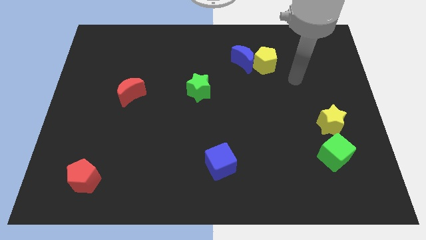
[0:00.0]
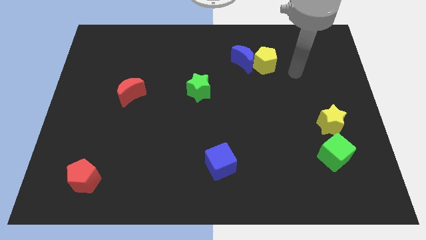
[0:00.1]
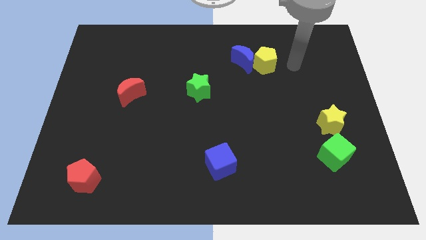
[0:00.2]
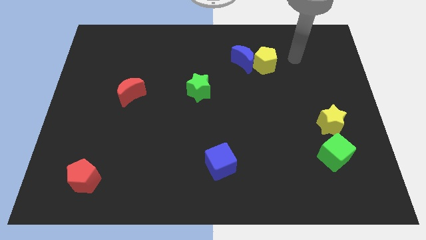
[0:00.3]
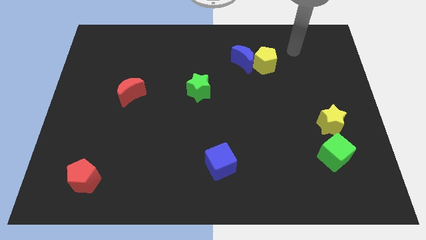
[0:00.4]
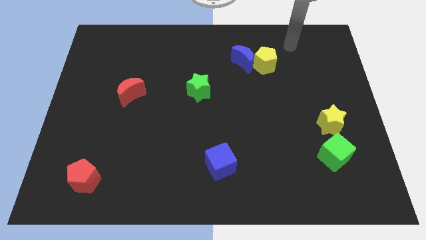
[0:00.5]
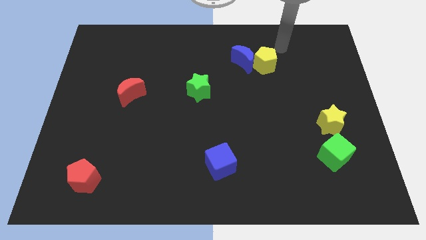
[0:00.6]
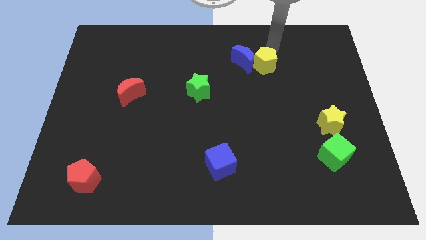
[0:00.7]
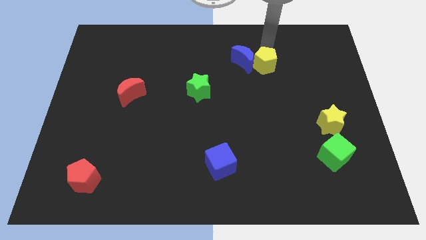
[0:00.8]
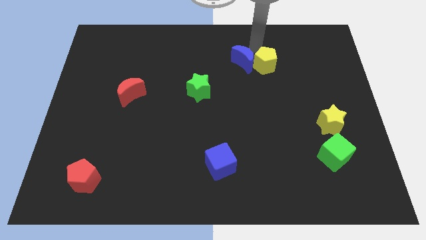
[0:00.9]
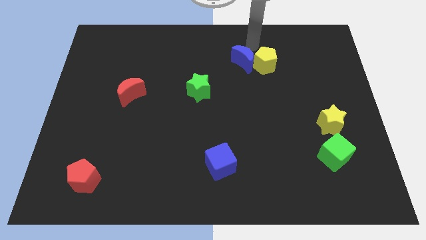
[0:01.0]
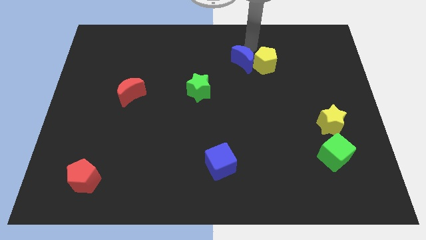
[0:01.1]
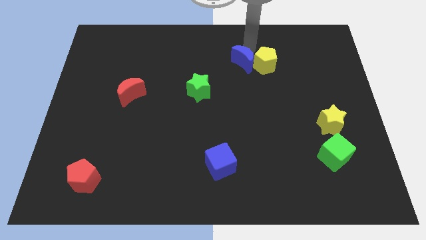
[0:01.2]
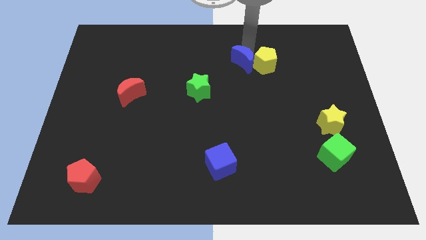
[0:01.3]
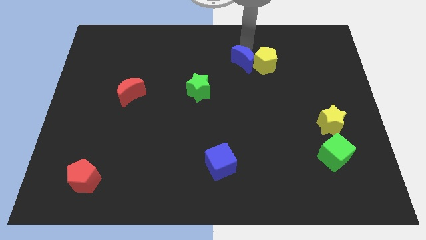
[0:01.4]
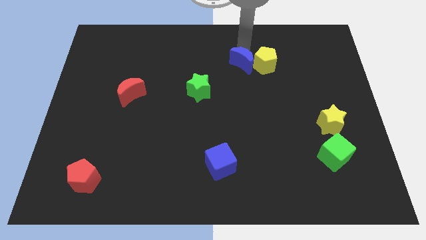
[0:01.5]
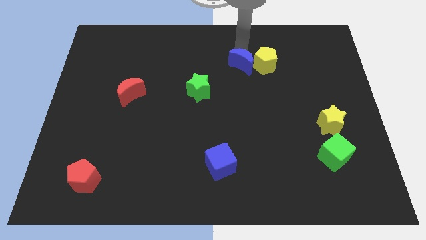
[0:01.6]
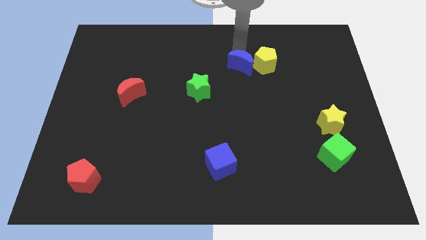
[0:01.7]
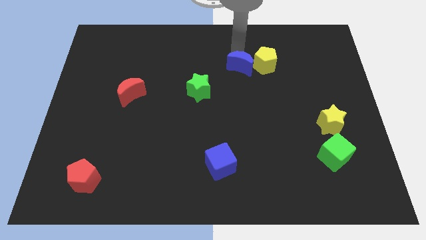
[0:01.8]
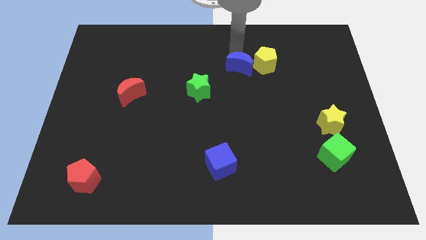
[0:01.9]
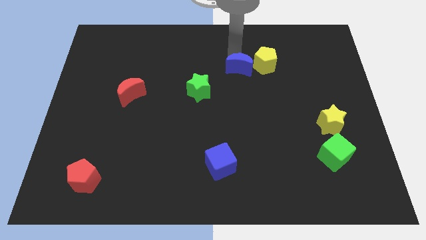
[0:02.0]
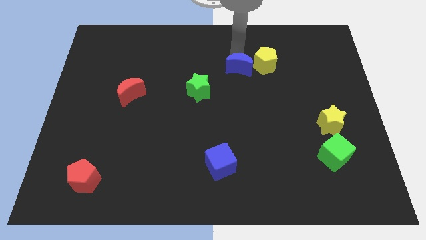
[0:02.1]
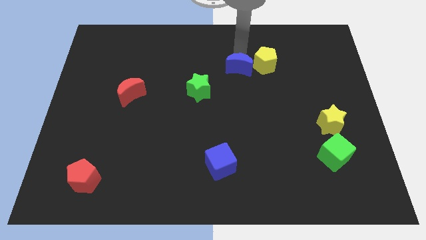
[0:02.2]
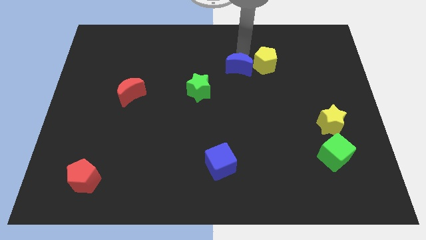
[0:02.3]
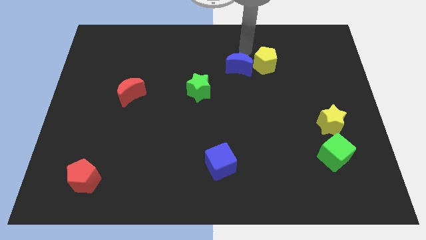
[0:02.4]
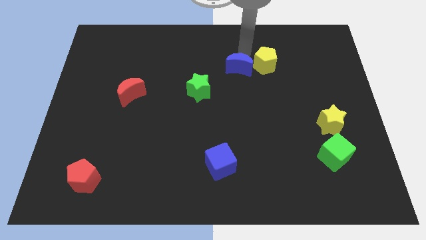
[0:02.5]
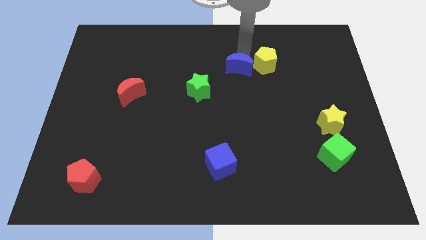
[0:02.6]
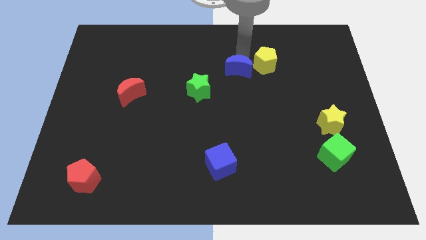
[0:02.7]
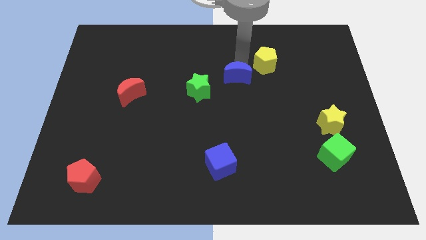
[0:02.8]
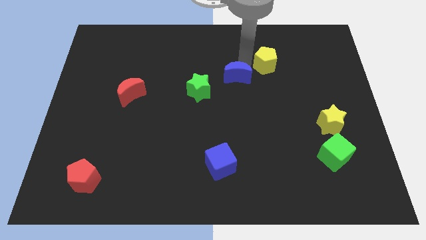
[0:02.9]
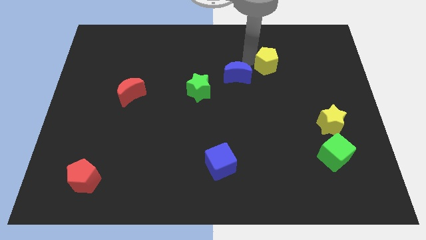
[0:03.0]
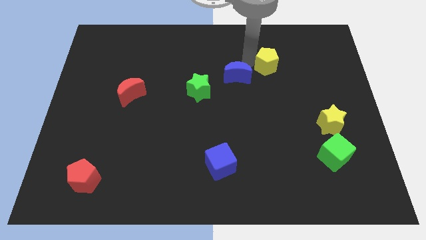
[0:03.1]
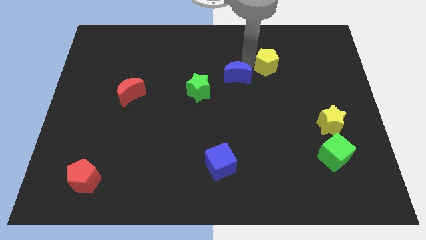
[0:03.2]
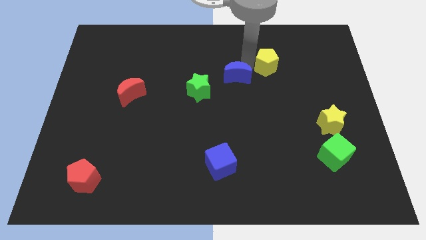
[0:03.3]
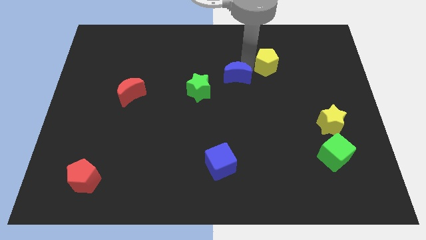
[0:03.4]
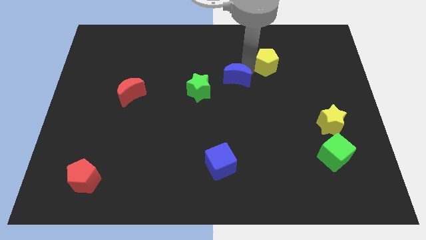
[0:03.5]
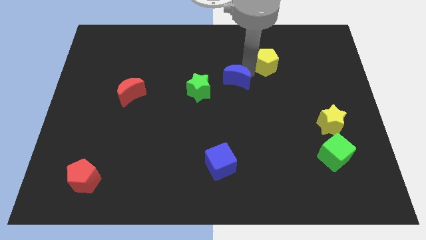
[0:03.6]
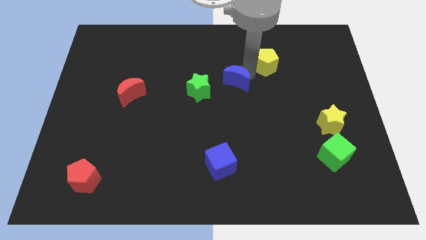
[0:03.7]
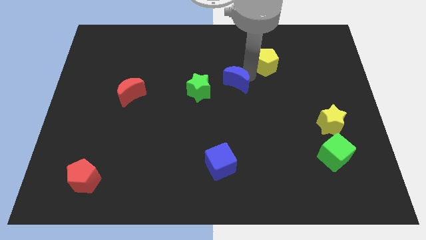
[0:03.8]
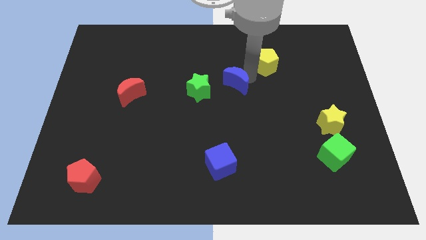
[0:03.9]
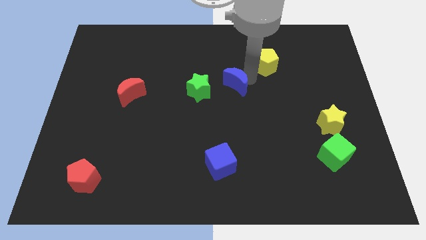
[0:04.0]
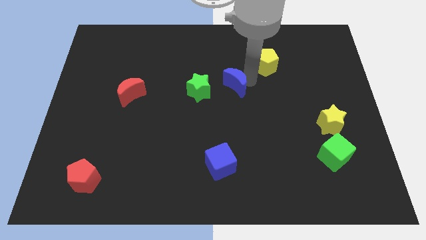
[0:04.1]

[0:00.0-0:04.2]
slightly slide the blue moon downwards and then left

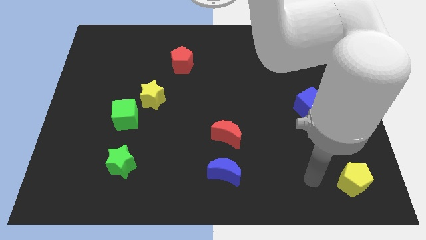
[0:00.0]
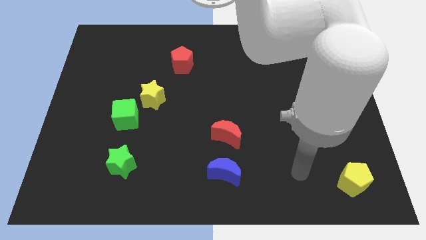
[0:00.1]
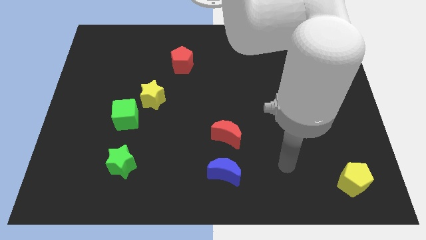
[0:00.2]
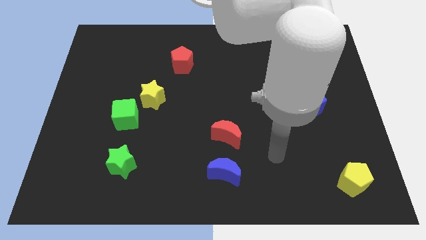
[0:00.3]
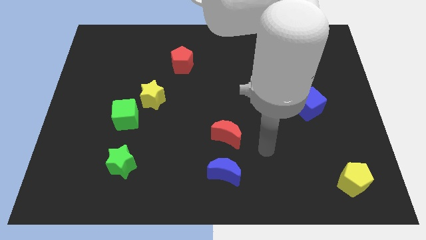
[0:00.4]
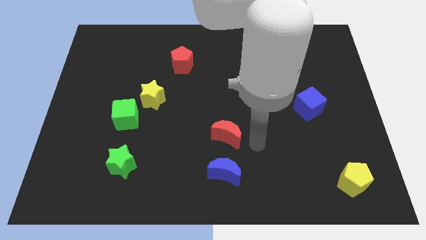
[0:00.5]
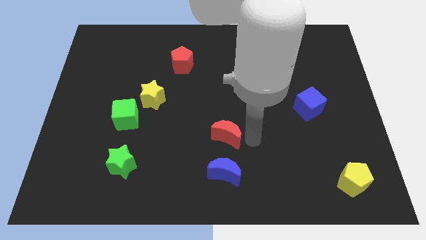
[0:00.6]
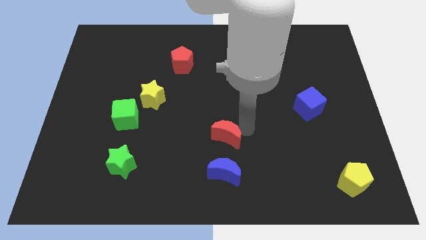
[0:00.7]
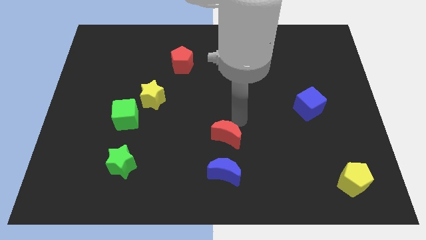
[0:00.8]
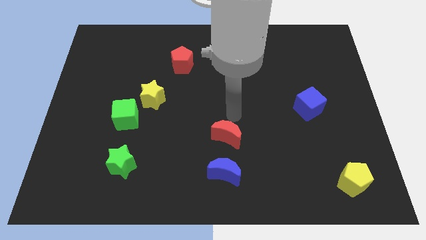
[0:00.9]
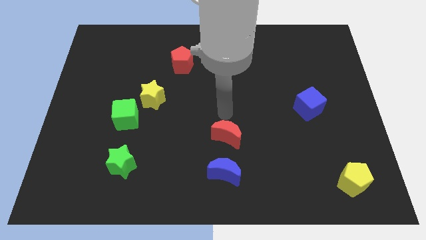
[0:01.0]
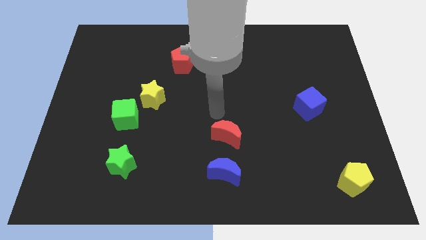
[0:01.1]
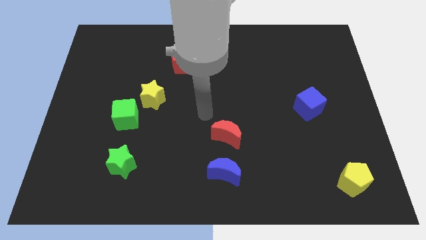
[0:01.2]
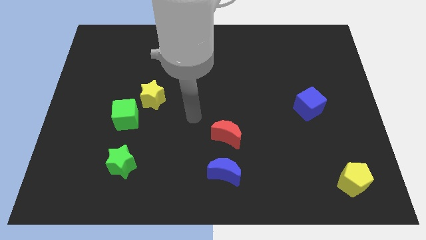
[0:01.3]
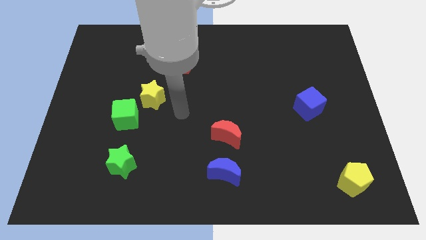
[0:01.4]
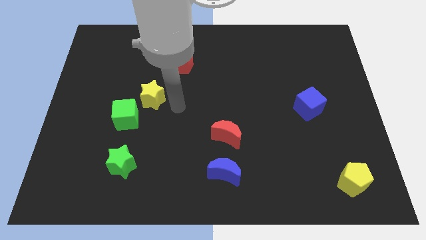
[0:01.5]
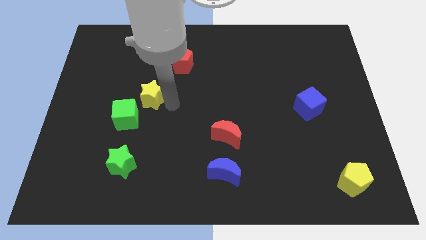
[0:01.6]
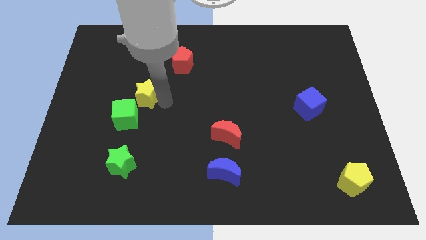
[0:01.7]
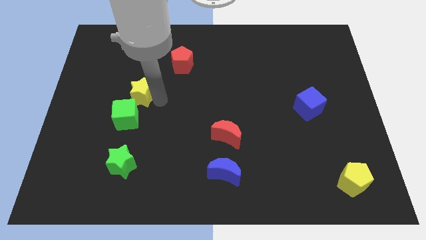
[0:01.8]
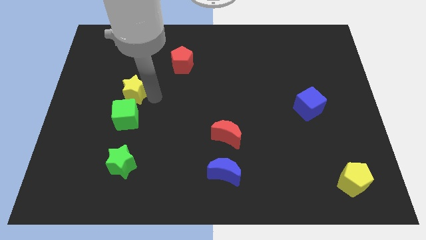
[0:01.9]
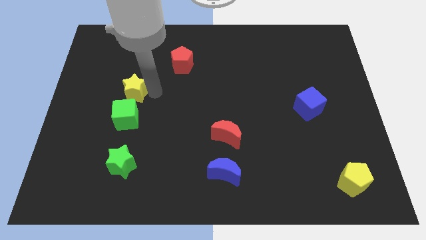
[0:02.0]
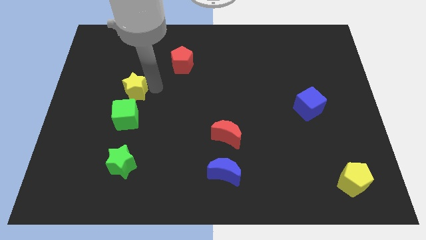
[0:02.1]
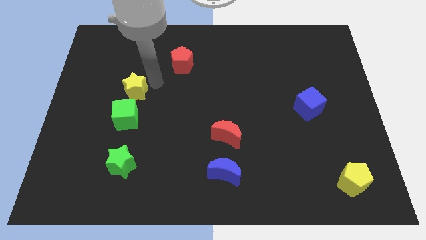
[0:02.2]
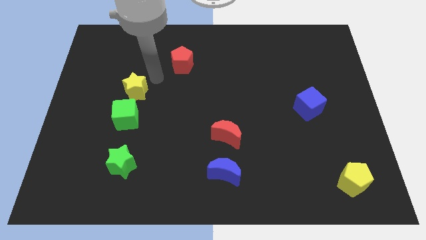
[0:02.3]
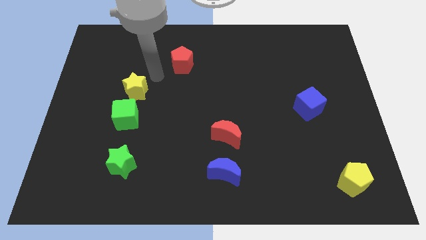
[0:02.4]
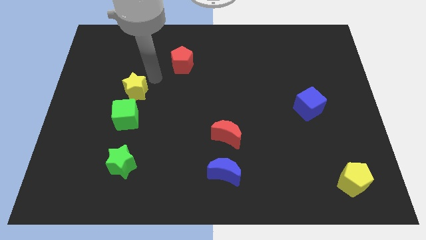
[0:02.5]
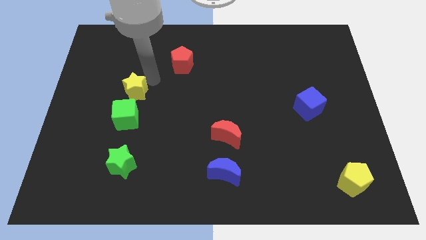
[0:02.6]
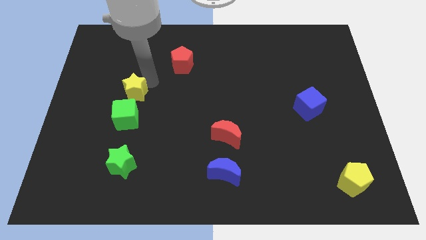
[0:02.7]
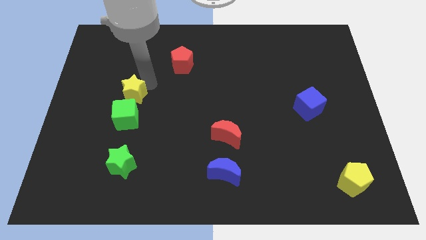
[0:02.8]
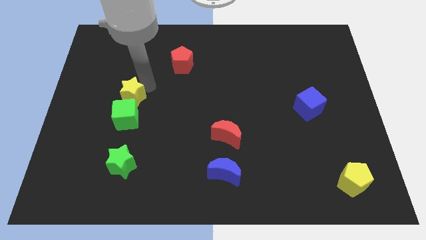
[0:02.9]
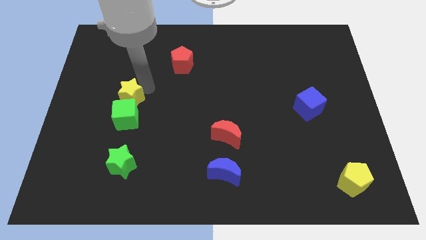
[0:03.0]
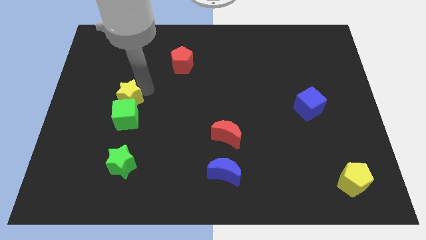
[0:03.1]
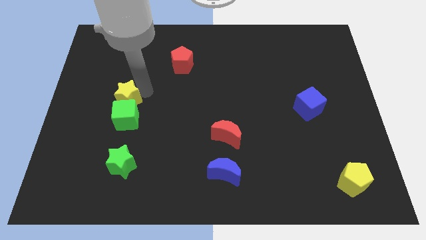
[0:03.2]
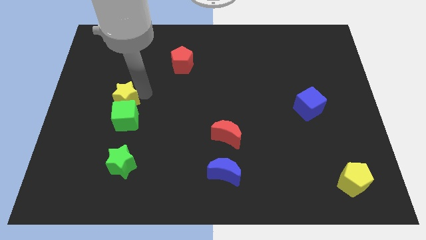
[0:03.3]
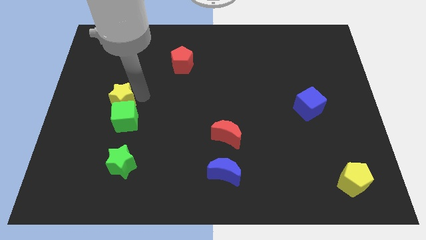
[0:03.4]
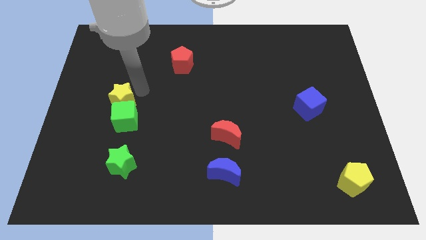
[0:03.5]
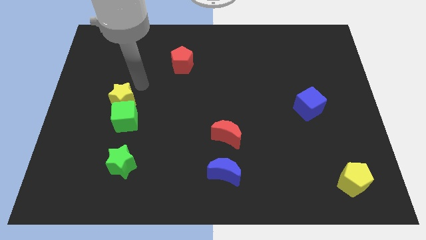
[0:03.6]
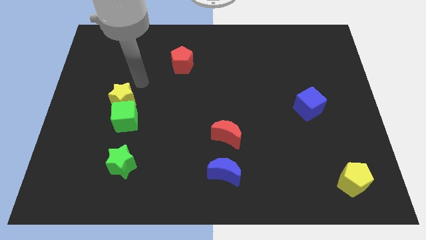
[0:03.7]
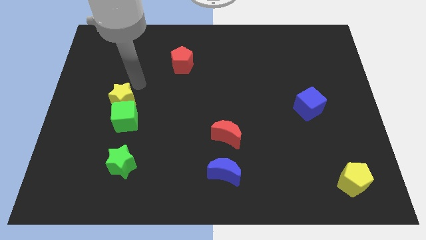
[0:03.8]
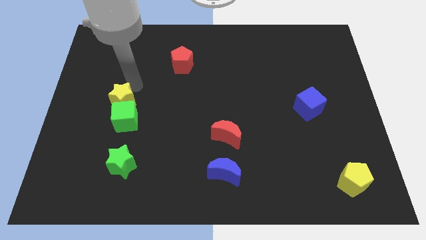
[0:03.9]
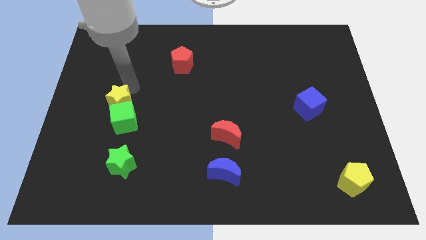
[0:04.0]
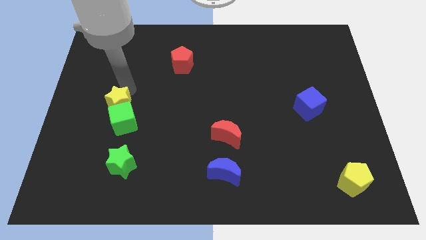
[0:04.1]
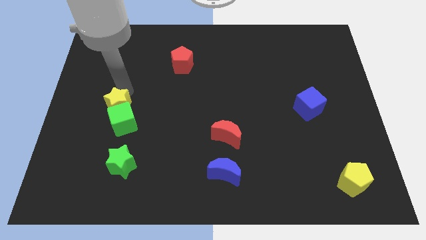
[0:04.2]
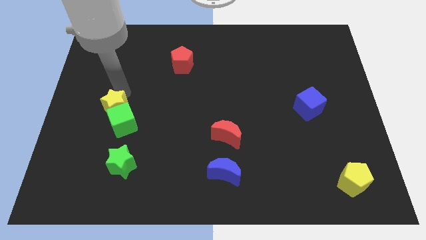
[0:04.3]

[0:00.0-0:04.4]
slightly move the yellow star diagonally downwards and left
